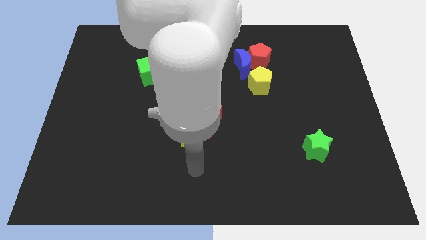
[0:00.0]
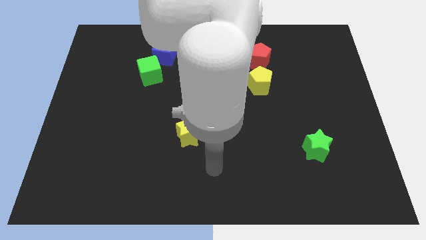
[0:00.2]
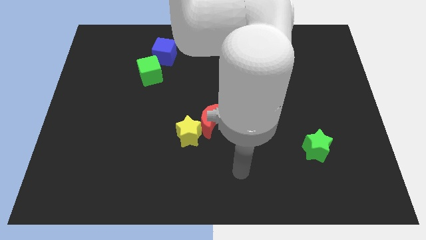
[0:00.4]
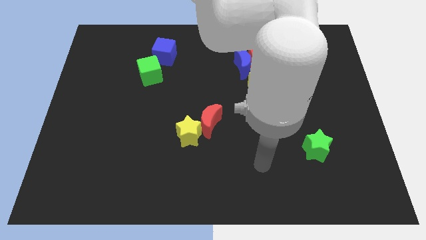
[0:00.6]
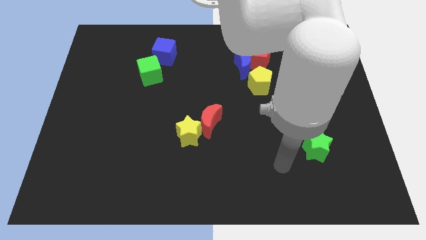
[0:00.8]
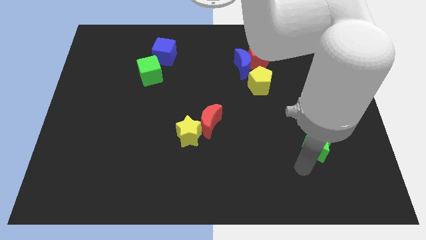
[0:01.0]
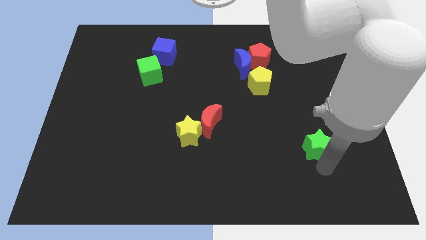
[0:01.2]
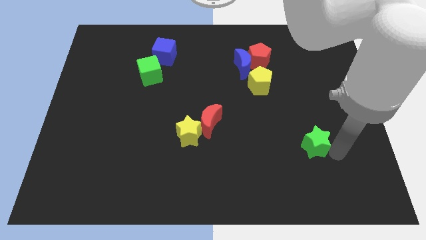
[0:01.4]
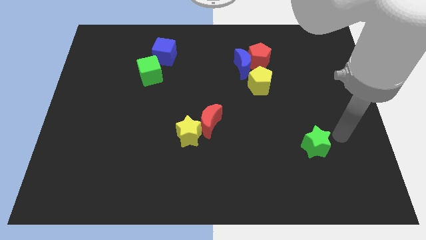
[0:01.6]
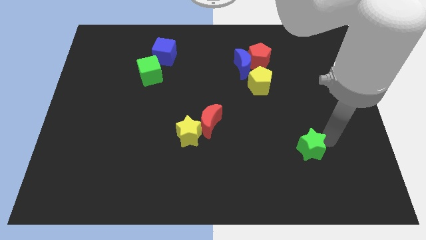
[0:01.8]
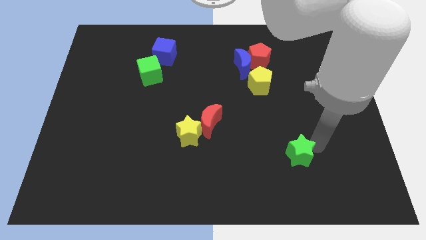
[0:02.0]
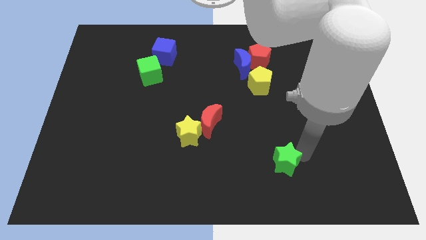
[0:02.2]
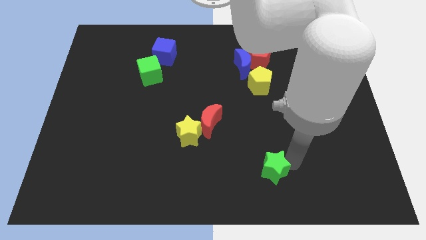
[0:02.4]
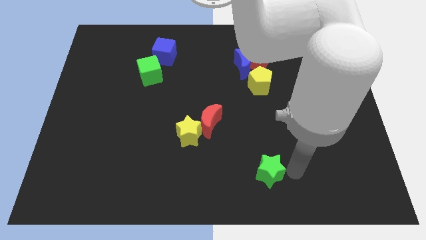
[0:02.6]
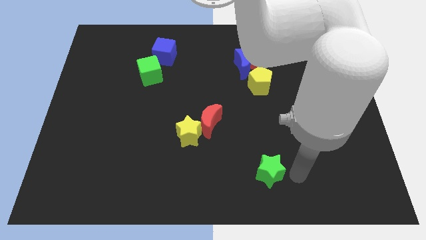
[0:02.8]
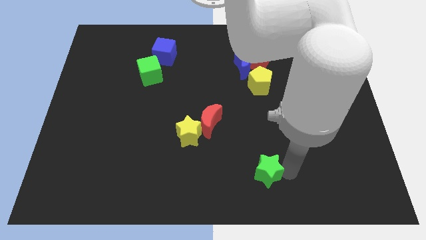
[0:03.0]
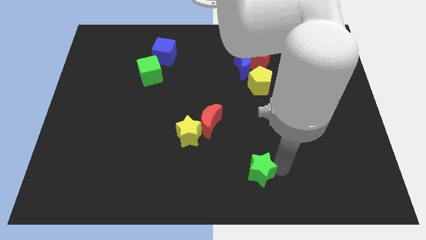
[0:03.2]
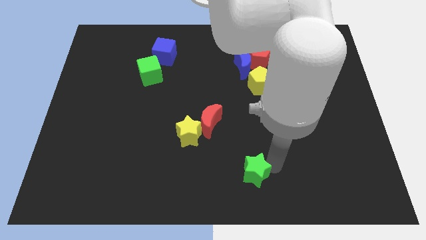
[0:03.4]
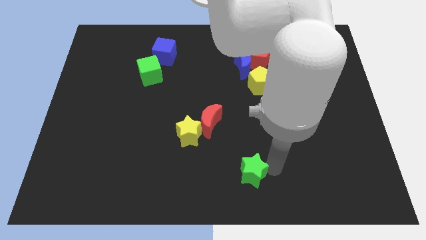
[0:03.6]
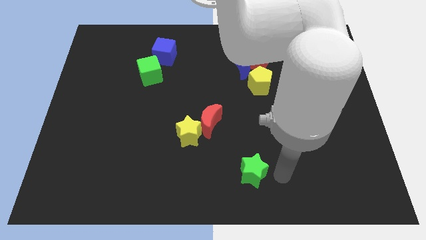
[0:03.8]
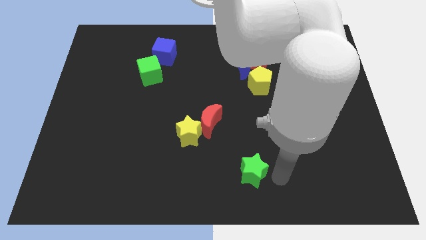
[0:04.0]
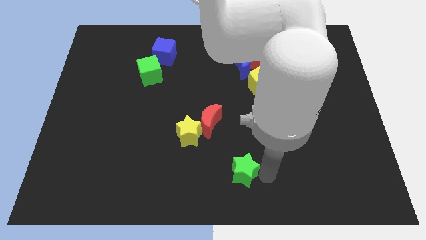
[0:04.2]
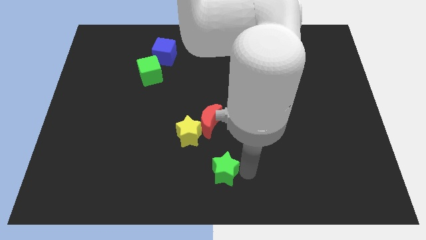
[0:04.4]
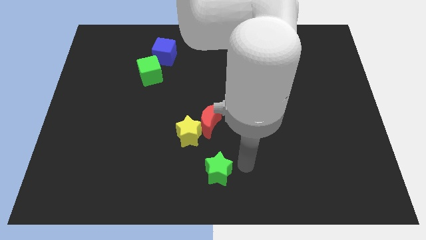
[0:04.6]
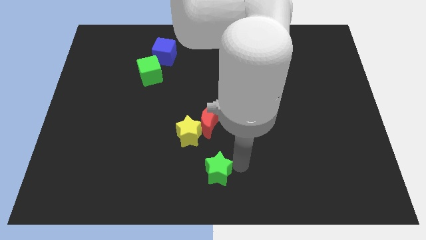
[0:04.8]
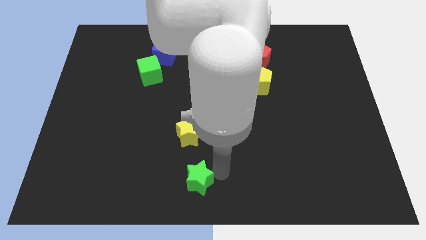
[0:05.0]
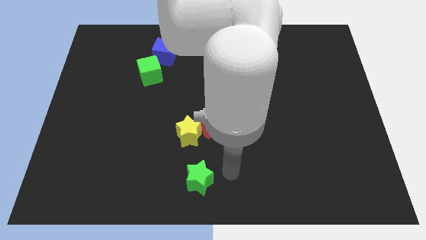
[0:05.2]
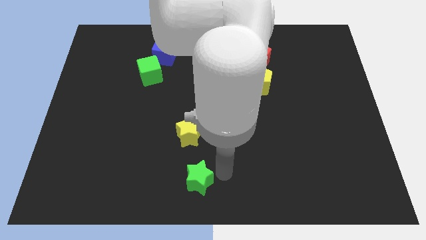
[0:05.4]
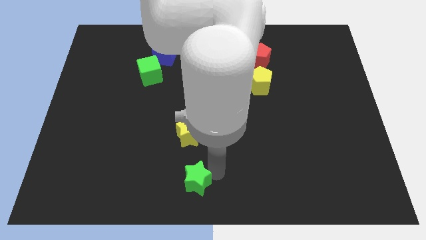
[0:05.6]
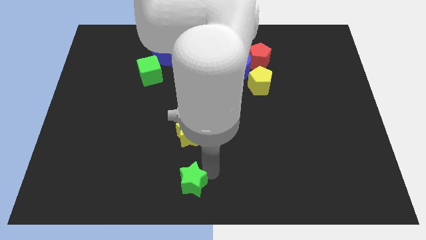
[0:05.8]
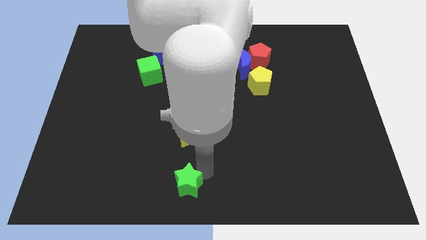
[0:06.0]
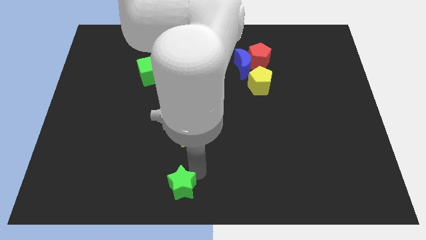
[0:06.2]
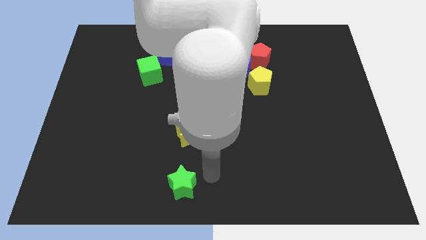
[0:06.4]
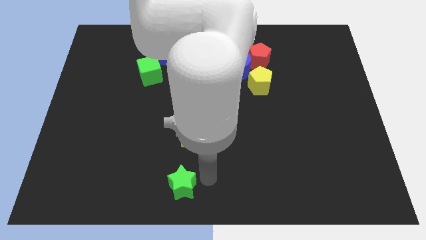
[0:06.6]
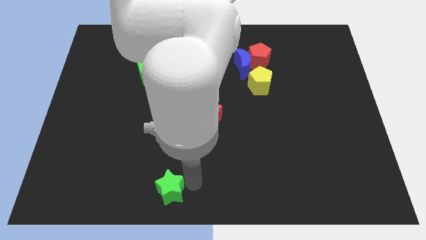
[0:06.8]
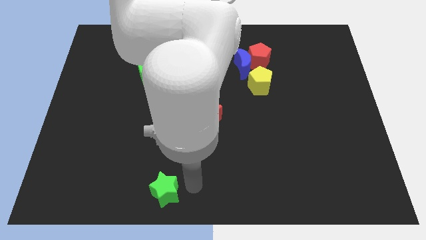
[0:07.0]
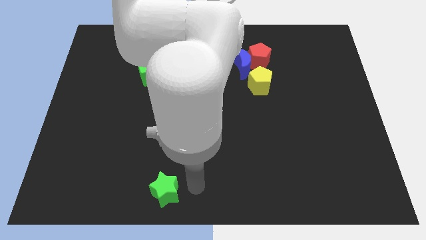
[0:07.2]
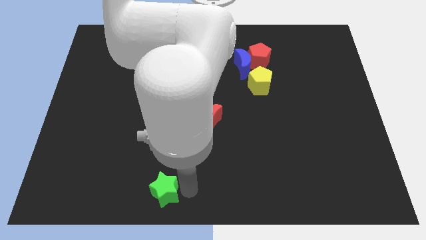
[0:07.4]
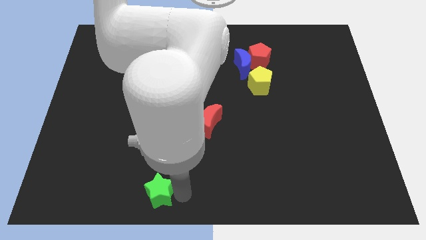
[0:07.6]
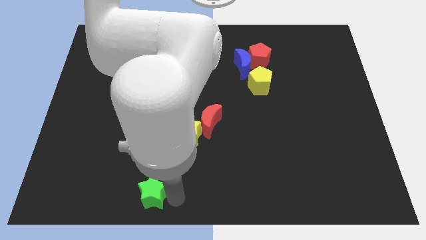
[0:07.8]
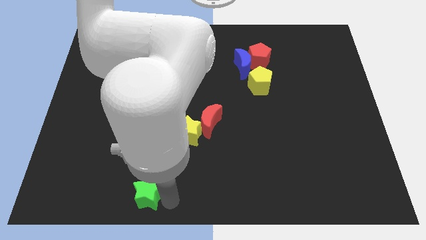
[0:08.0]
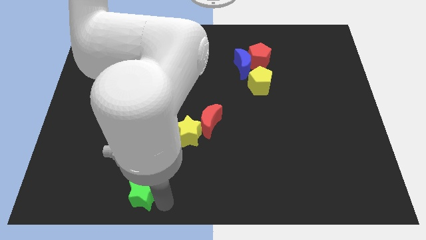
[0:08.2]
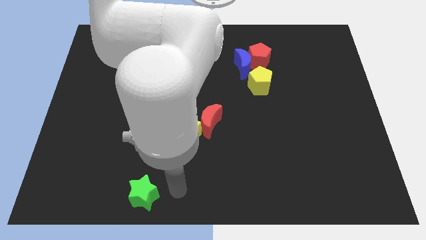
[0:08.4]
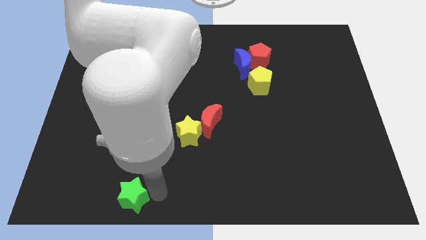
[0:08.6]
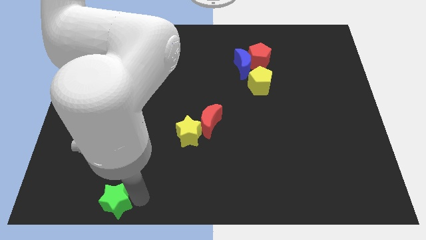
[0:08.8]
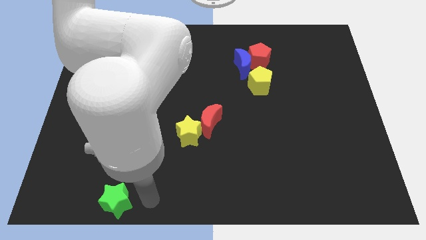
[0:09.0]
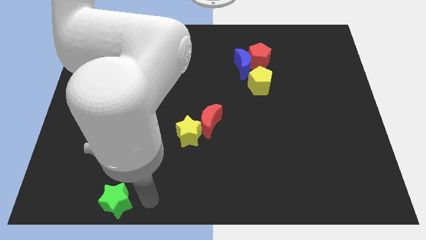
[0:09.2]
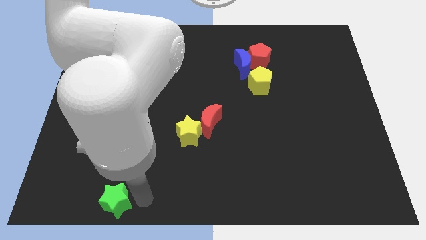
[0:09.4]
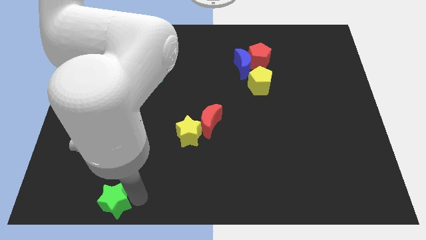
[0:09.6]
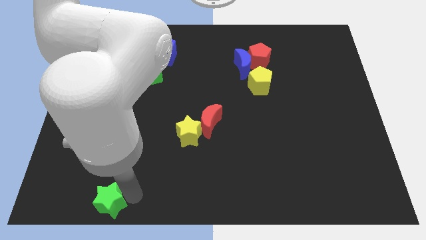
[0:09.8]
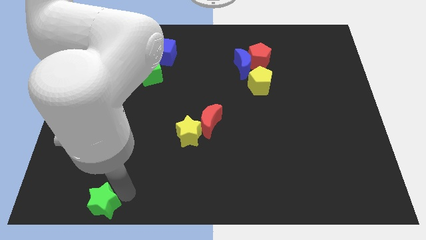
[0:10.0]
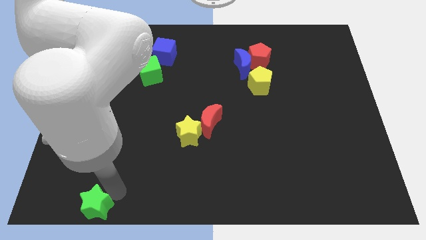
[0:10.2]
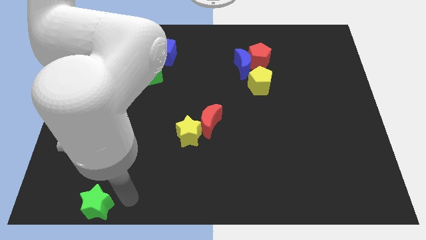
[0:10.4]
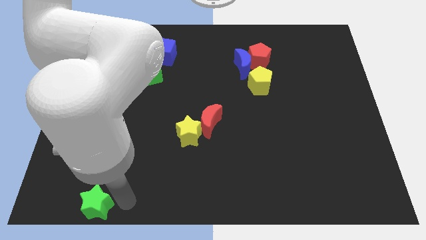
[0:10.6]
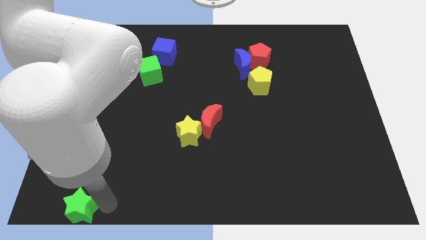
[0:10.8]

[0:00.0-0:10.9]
slide the green star to the bottom left

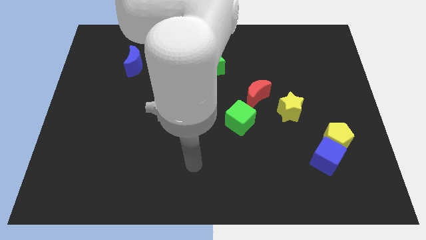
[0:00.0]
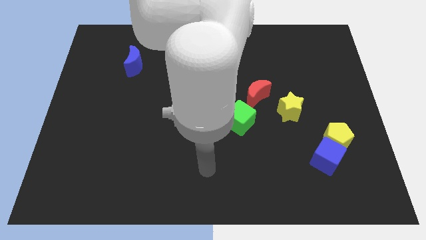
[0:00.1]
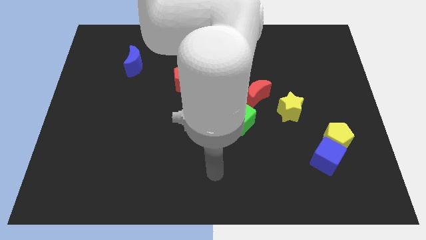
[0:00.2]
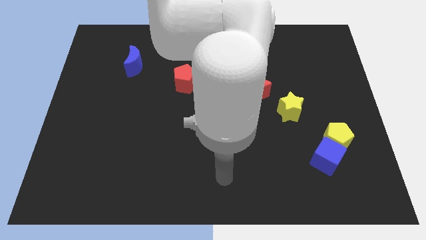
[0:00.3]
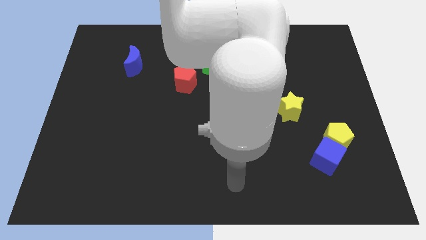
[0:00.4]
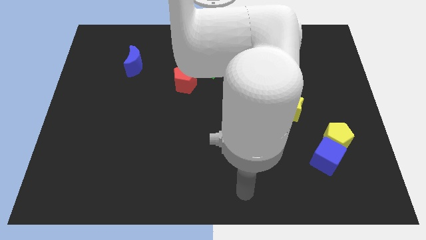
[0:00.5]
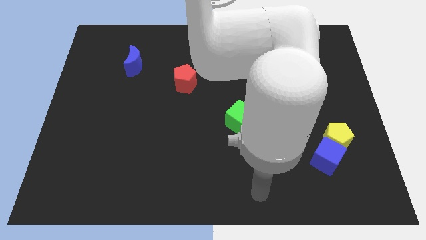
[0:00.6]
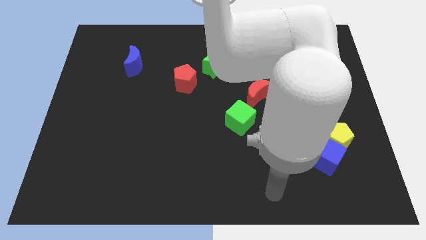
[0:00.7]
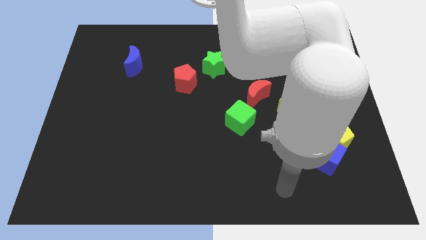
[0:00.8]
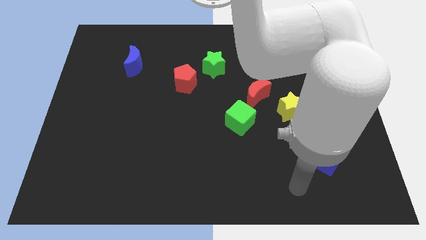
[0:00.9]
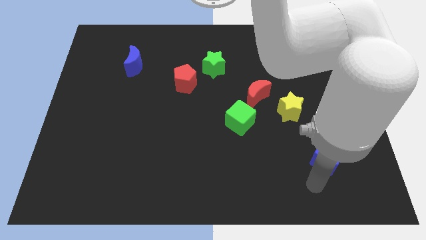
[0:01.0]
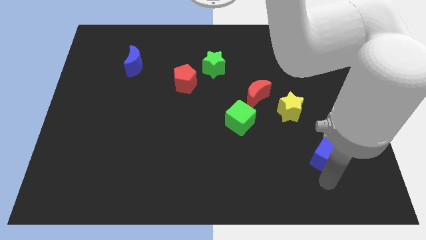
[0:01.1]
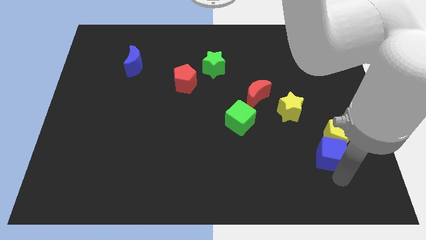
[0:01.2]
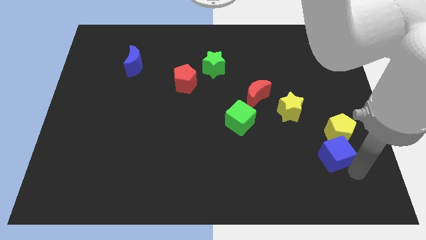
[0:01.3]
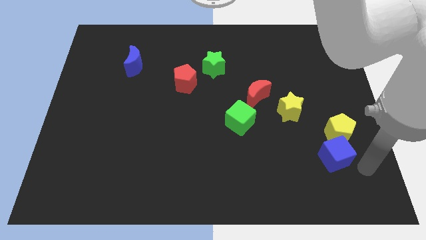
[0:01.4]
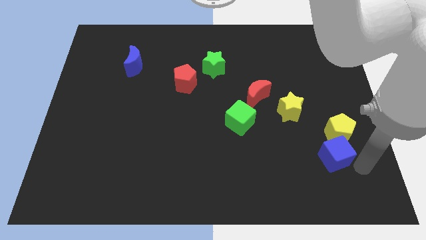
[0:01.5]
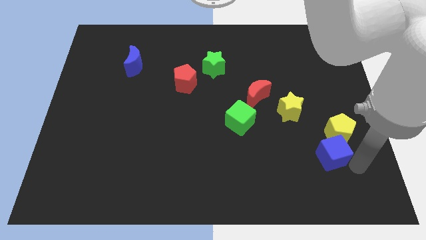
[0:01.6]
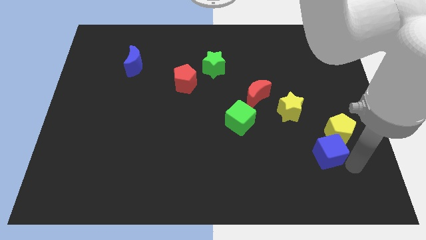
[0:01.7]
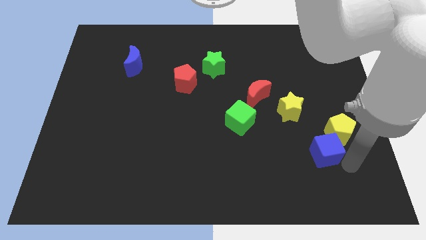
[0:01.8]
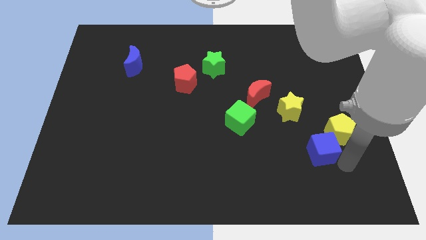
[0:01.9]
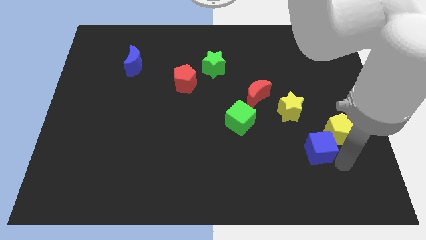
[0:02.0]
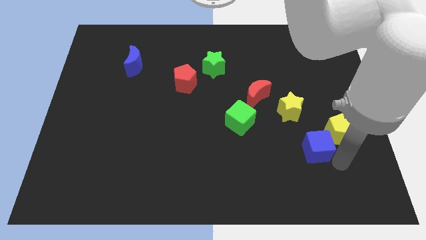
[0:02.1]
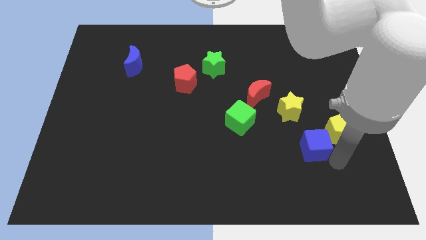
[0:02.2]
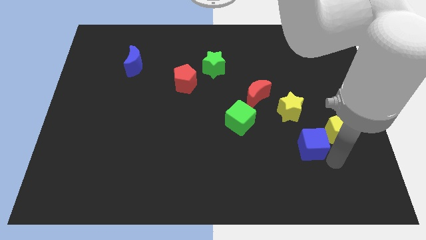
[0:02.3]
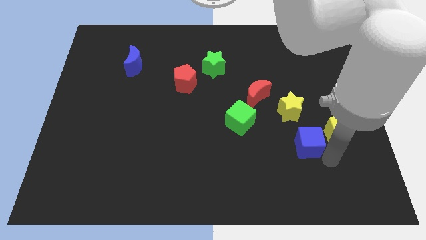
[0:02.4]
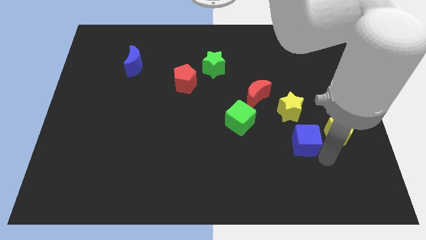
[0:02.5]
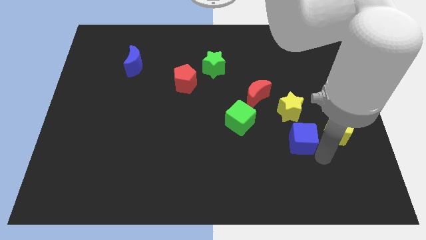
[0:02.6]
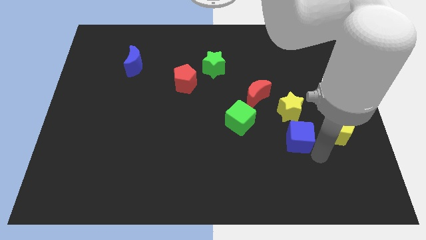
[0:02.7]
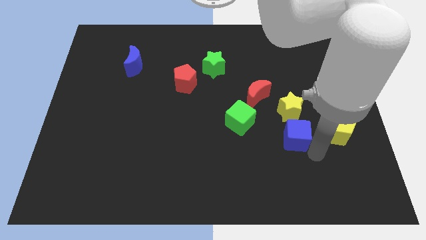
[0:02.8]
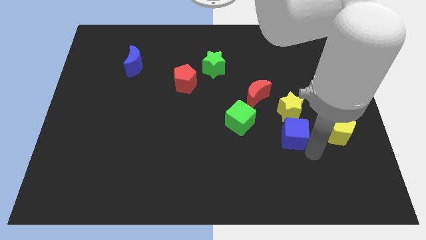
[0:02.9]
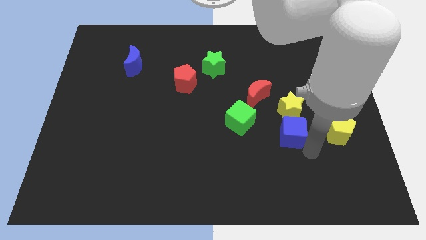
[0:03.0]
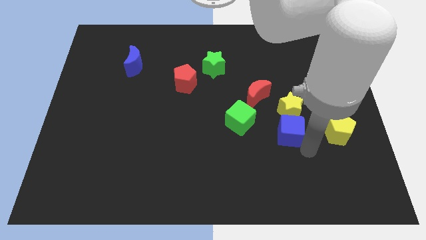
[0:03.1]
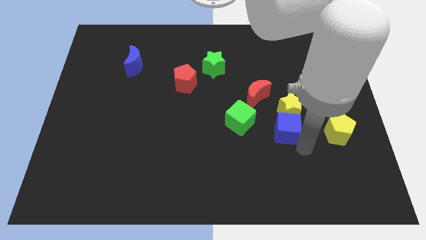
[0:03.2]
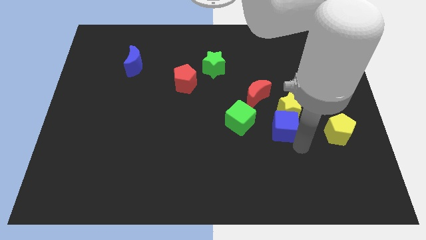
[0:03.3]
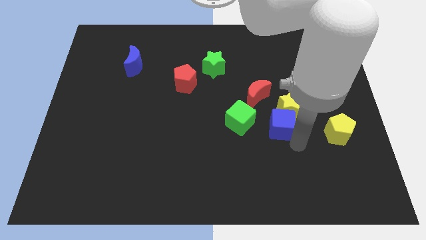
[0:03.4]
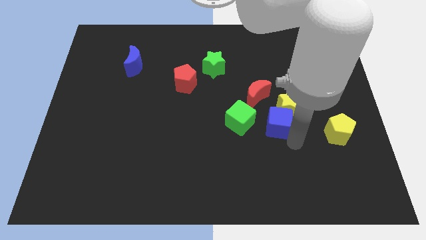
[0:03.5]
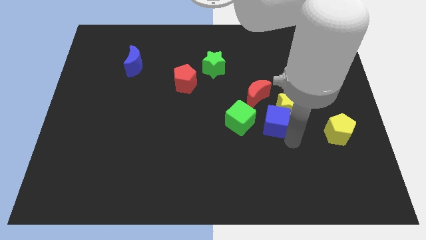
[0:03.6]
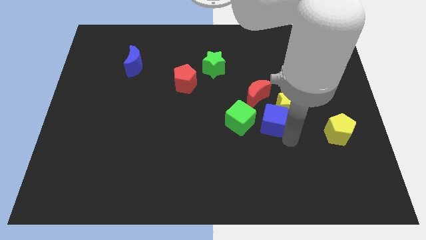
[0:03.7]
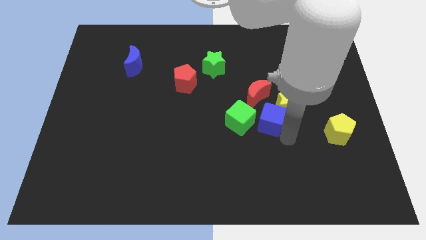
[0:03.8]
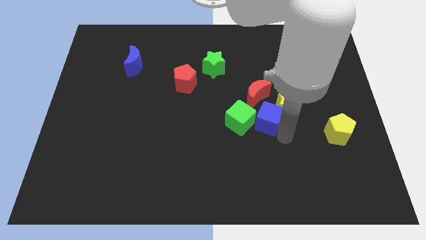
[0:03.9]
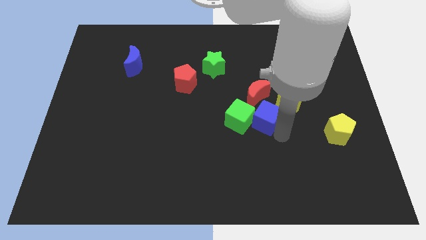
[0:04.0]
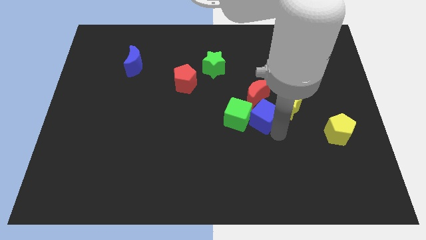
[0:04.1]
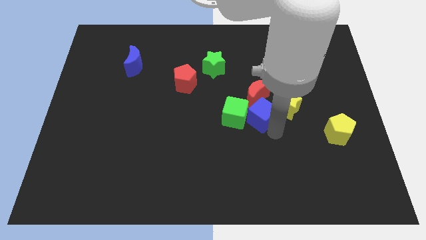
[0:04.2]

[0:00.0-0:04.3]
slide the blue cube to the middle of the board
